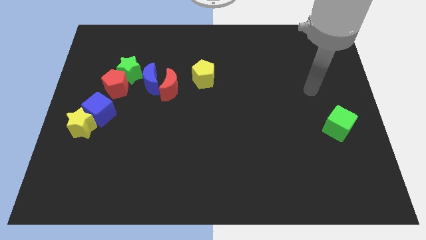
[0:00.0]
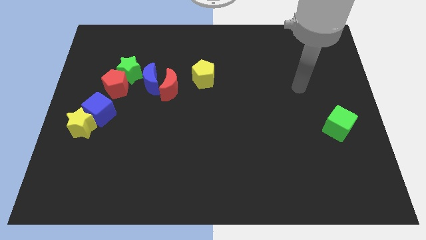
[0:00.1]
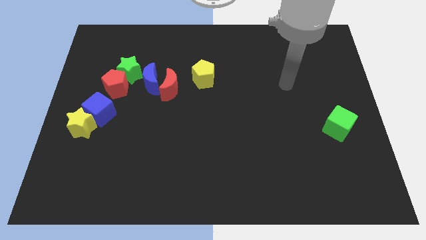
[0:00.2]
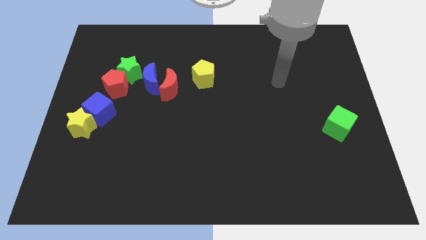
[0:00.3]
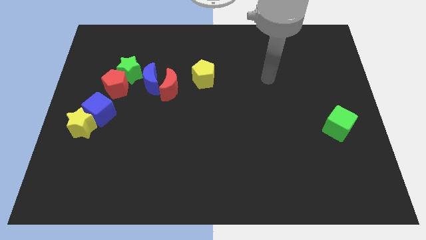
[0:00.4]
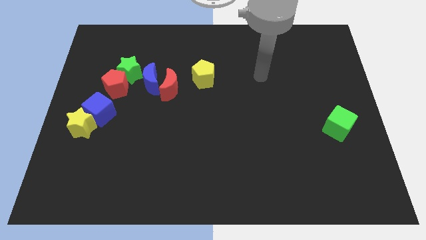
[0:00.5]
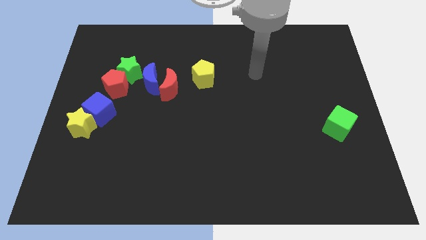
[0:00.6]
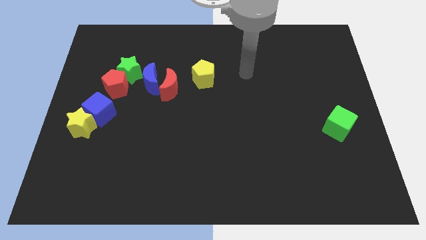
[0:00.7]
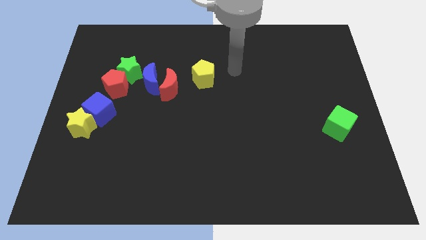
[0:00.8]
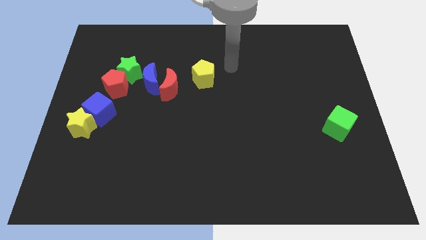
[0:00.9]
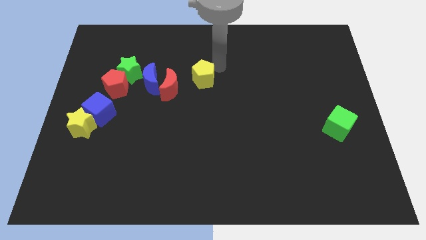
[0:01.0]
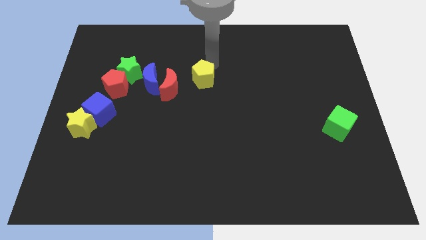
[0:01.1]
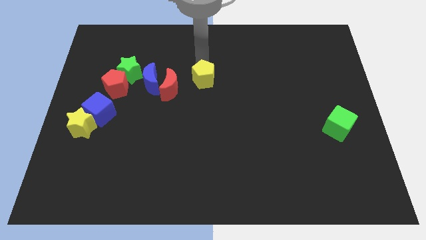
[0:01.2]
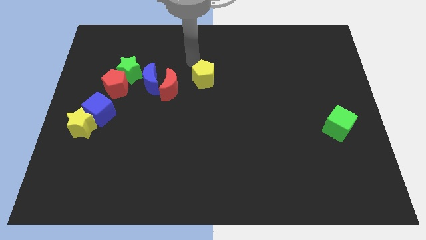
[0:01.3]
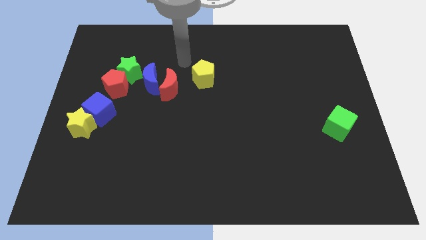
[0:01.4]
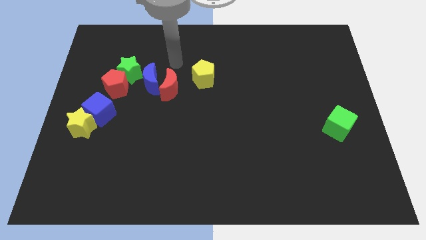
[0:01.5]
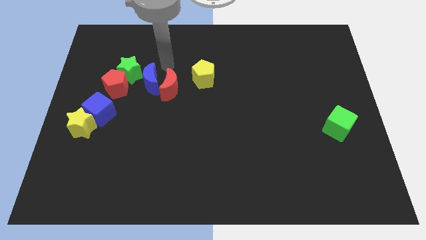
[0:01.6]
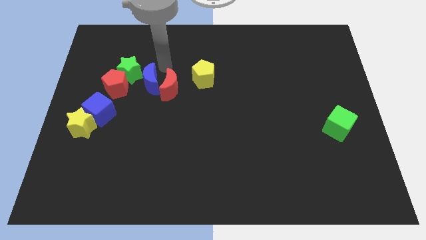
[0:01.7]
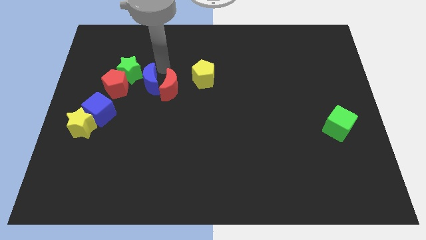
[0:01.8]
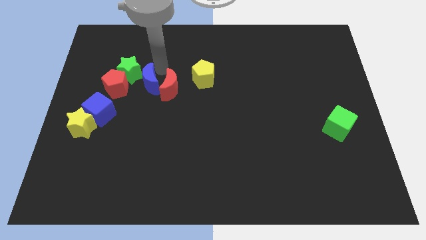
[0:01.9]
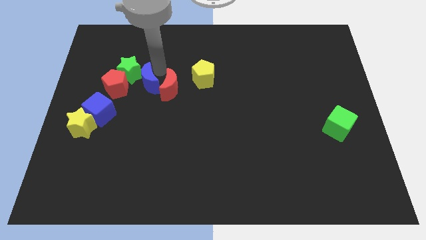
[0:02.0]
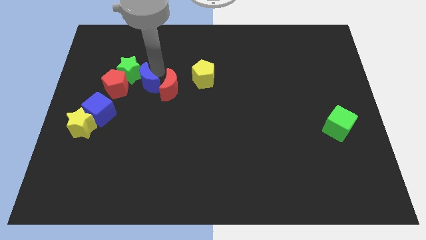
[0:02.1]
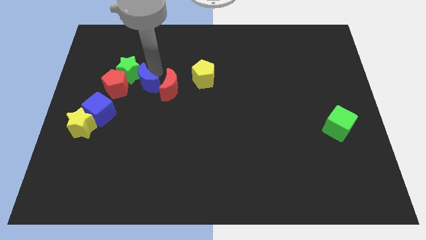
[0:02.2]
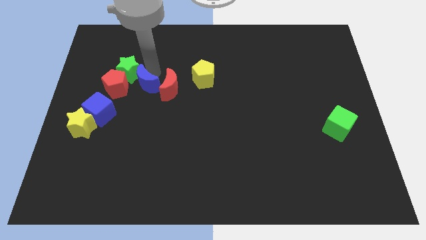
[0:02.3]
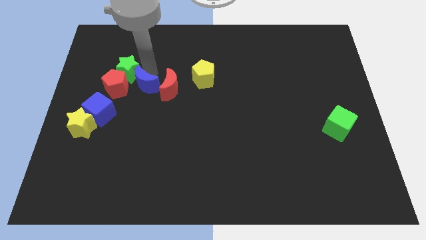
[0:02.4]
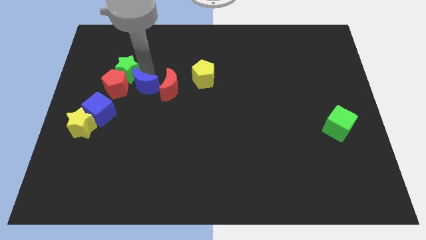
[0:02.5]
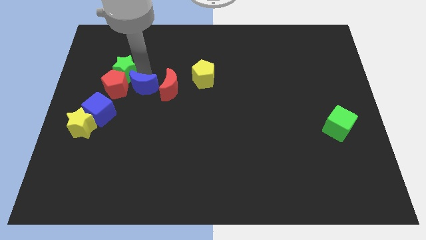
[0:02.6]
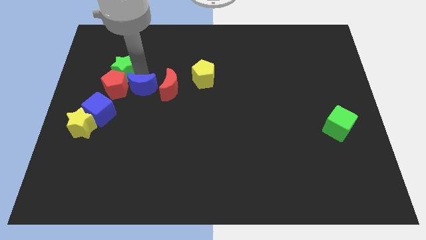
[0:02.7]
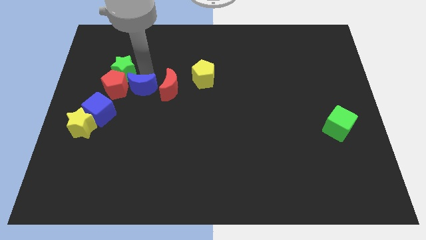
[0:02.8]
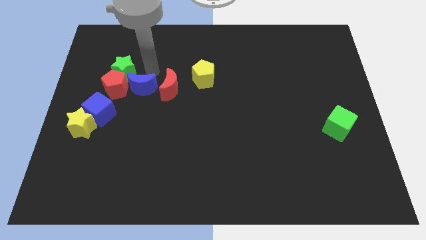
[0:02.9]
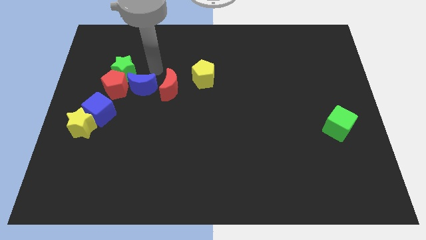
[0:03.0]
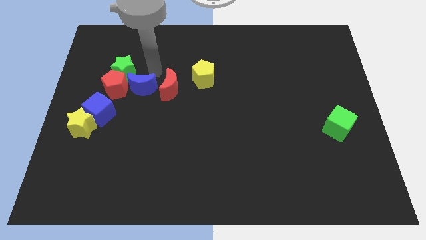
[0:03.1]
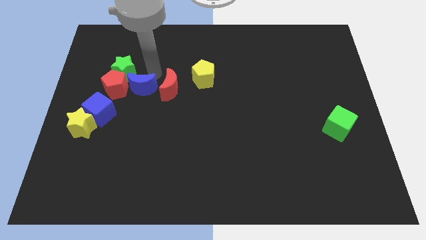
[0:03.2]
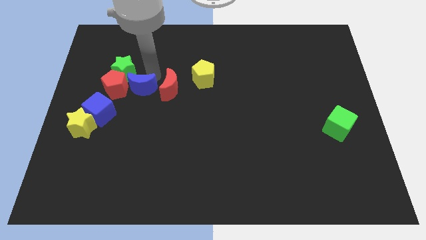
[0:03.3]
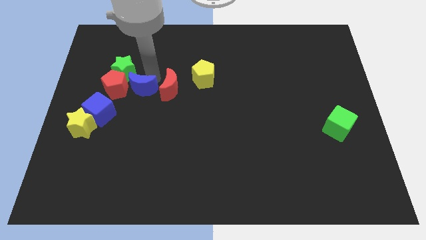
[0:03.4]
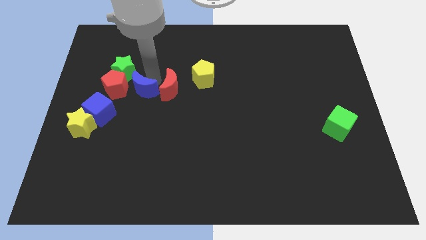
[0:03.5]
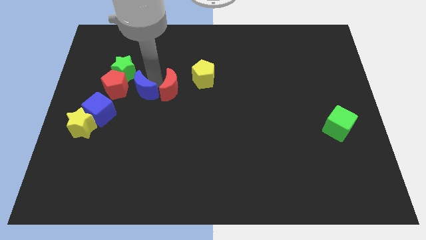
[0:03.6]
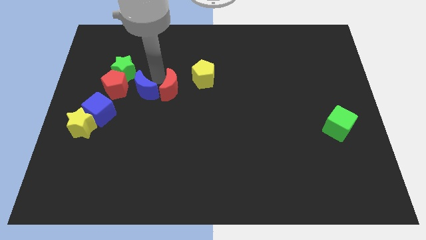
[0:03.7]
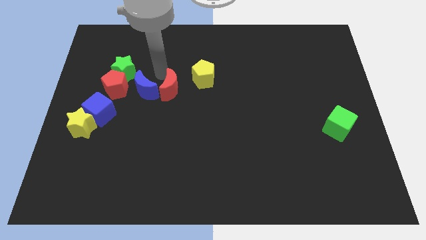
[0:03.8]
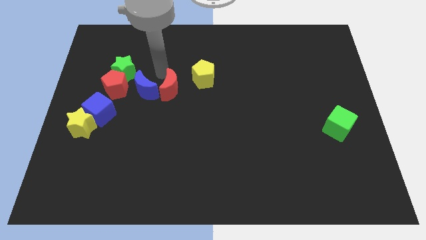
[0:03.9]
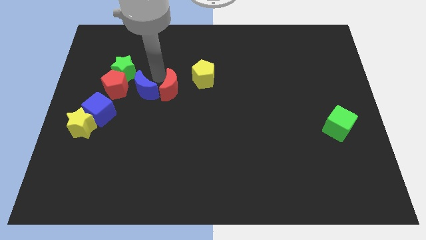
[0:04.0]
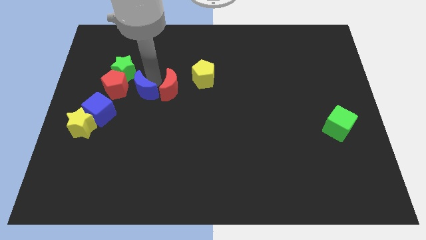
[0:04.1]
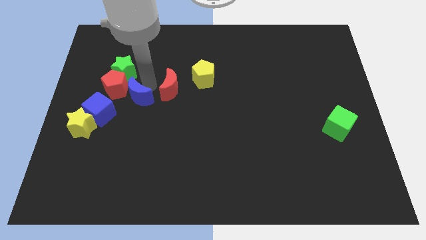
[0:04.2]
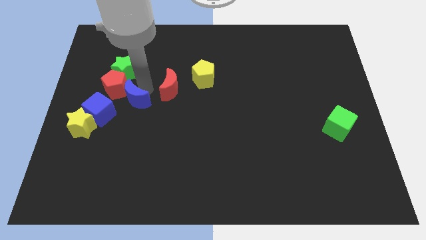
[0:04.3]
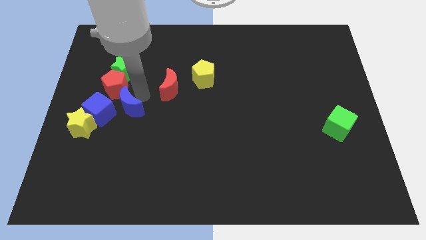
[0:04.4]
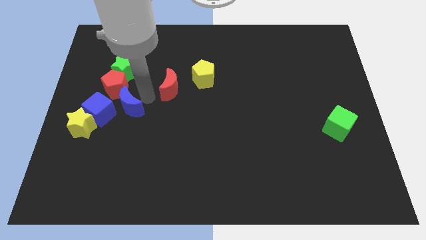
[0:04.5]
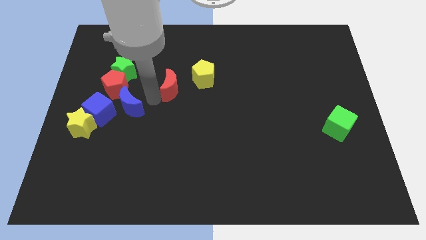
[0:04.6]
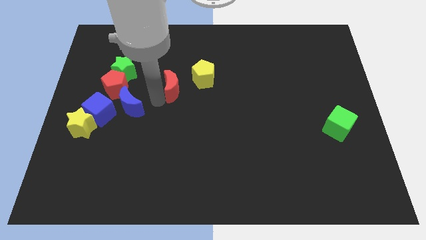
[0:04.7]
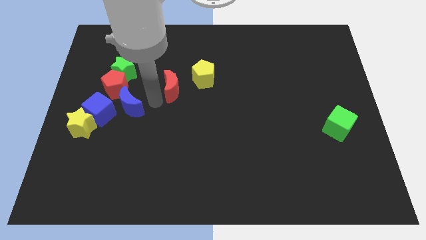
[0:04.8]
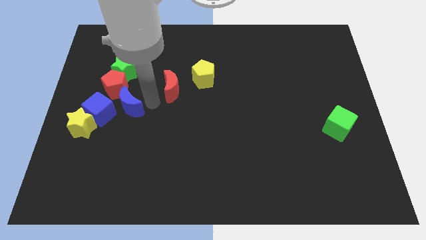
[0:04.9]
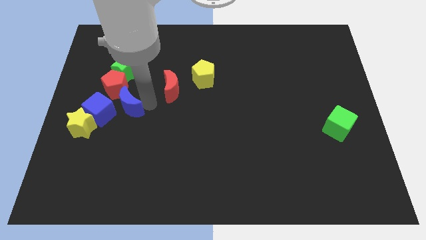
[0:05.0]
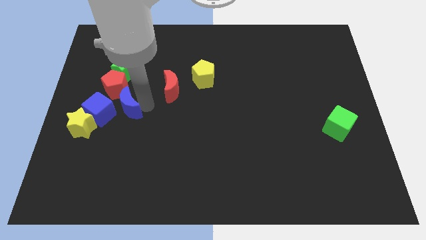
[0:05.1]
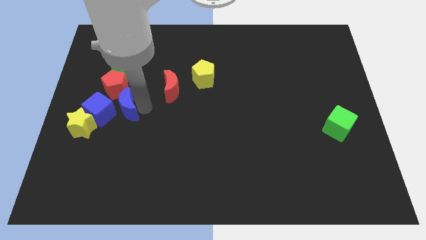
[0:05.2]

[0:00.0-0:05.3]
put the blue moon towards the blue cube

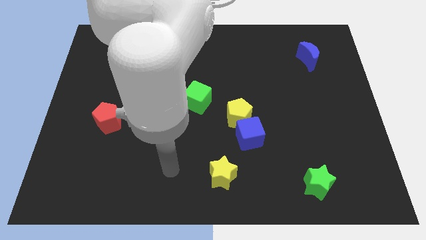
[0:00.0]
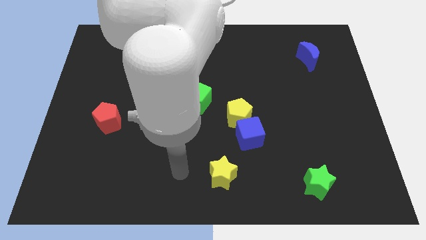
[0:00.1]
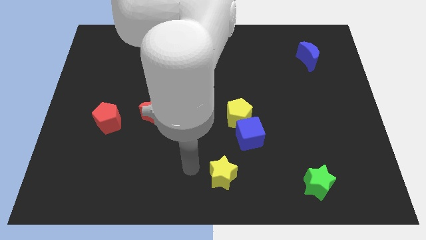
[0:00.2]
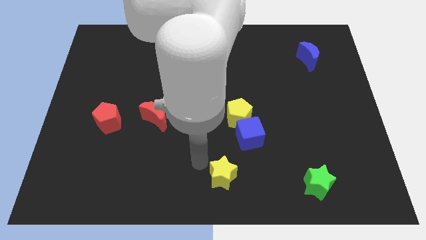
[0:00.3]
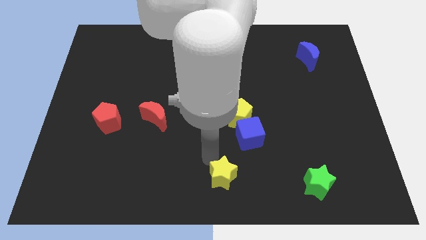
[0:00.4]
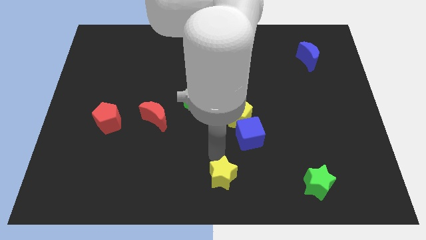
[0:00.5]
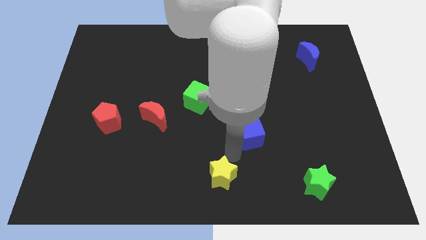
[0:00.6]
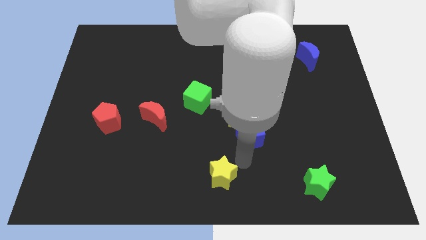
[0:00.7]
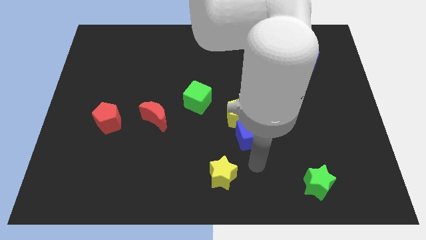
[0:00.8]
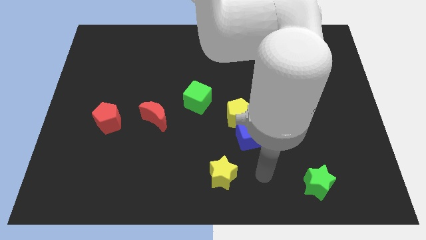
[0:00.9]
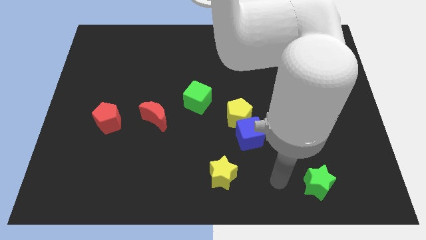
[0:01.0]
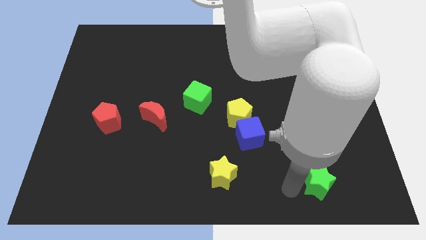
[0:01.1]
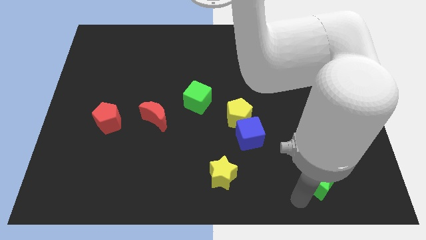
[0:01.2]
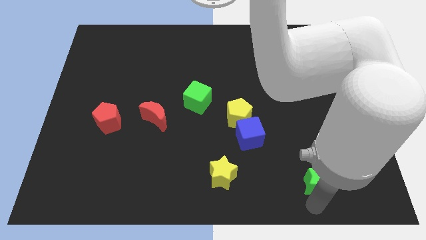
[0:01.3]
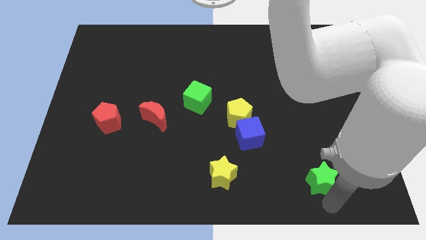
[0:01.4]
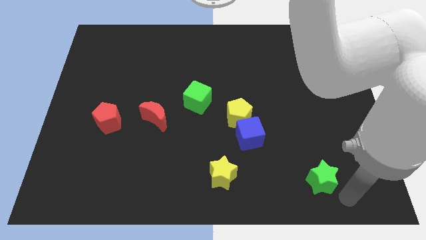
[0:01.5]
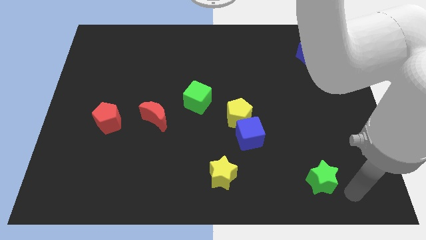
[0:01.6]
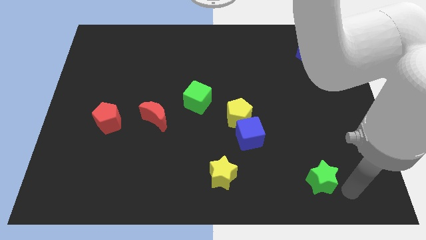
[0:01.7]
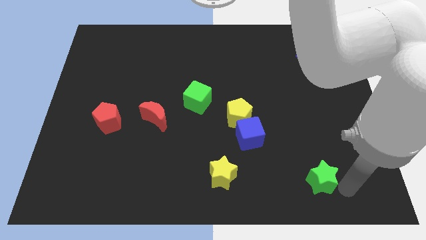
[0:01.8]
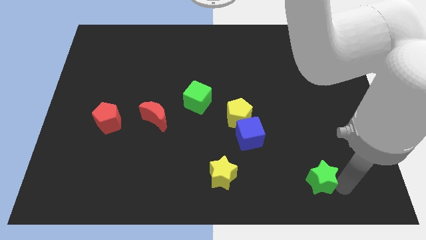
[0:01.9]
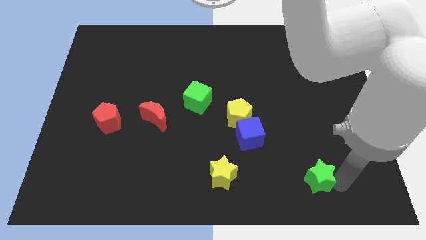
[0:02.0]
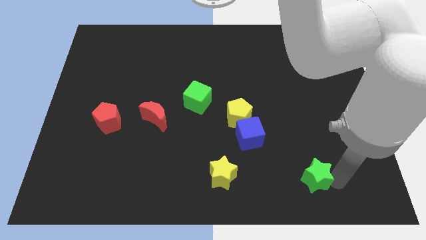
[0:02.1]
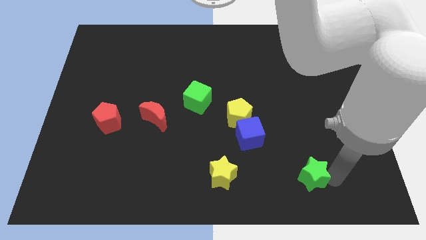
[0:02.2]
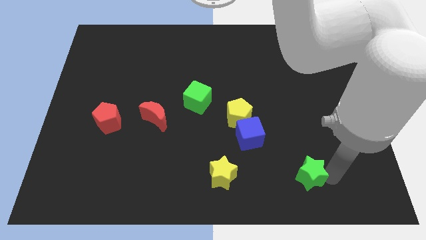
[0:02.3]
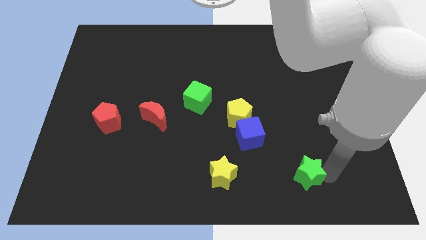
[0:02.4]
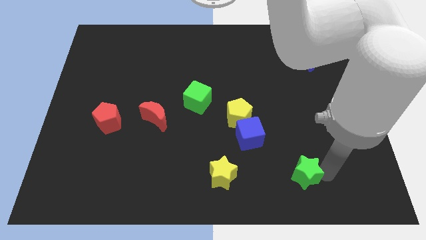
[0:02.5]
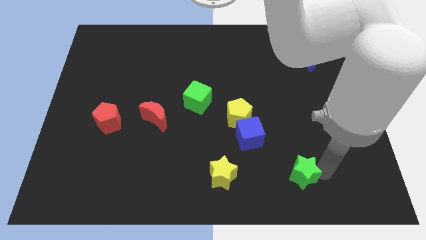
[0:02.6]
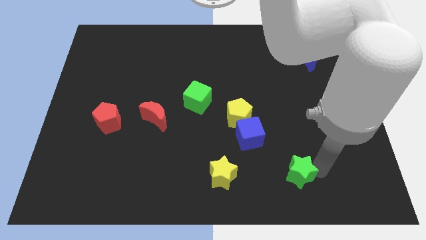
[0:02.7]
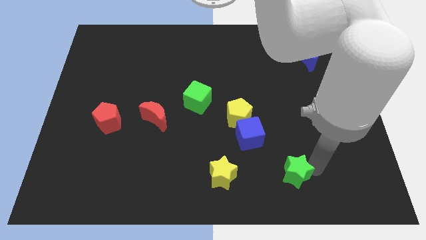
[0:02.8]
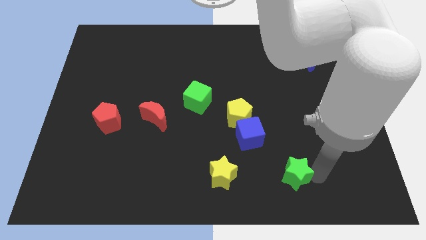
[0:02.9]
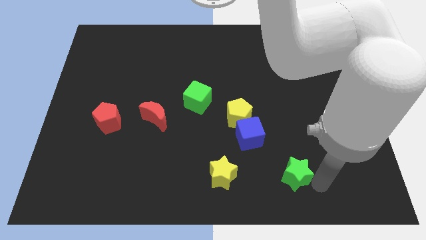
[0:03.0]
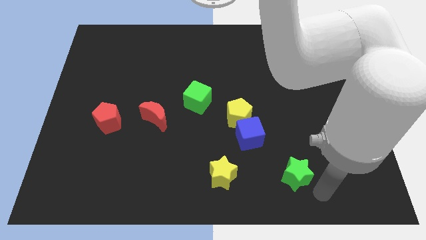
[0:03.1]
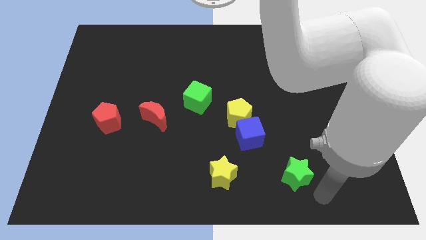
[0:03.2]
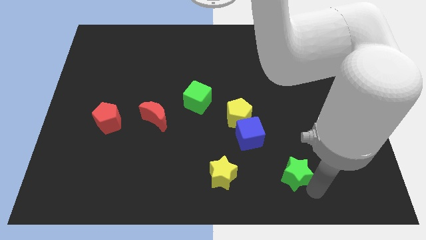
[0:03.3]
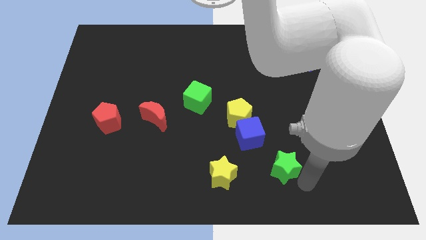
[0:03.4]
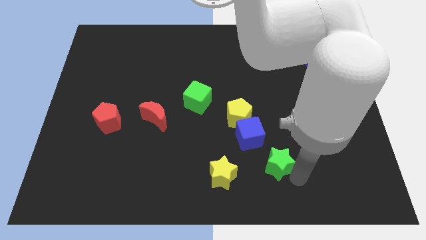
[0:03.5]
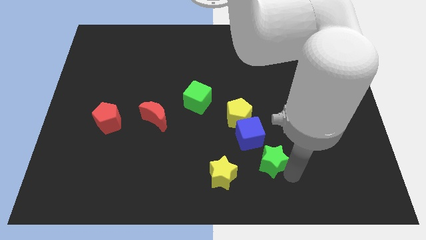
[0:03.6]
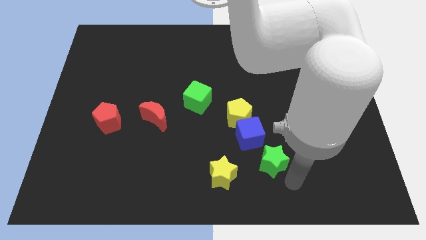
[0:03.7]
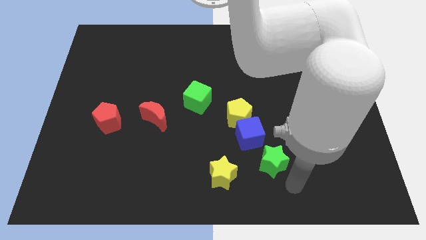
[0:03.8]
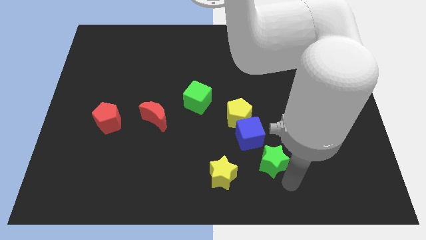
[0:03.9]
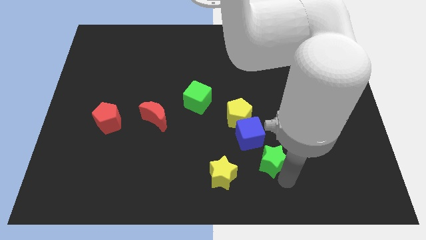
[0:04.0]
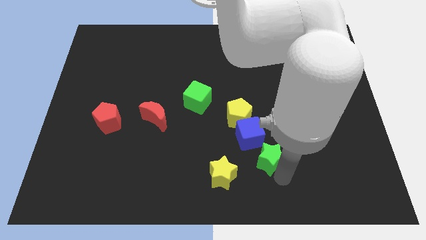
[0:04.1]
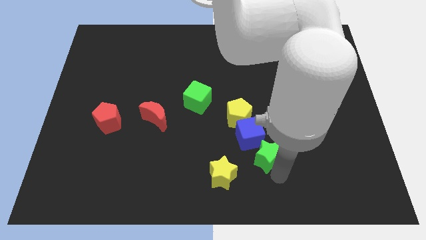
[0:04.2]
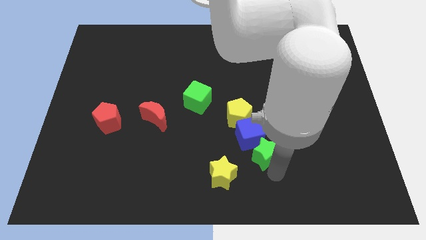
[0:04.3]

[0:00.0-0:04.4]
put the green star towards the blue cube
